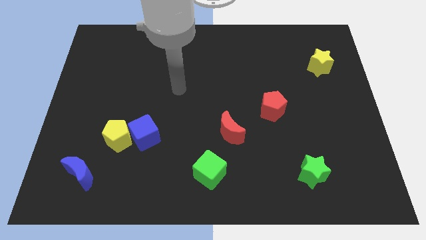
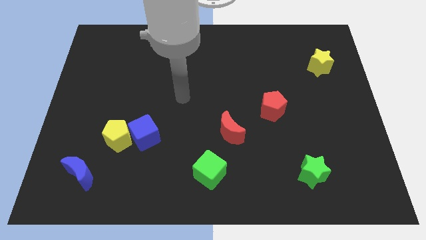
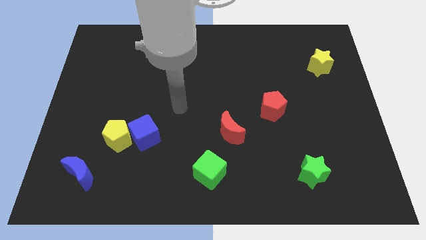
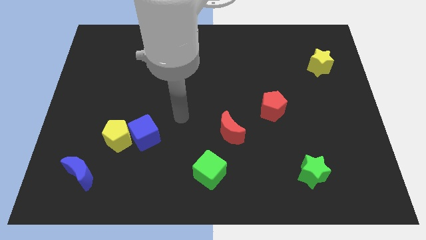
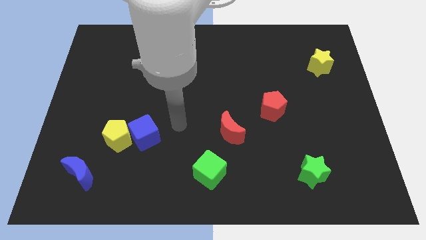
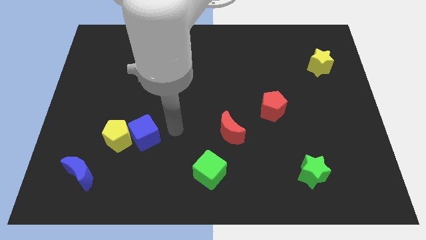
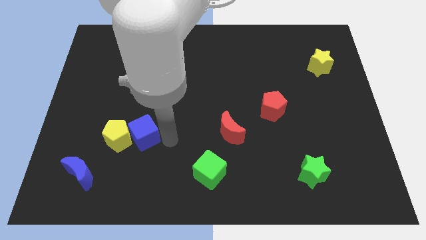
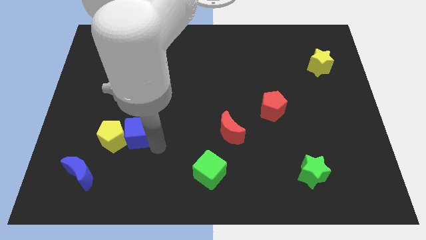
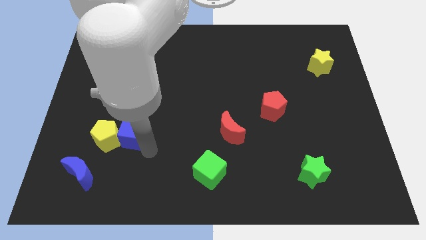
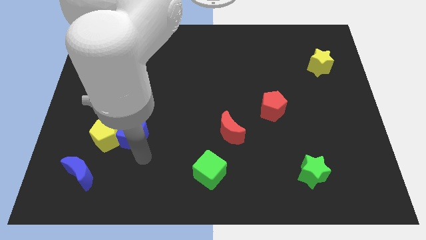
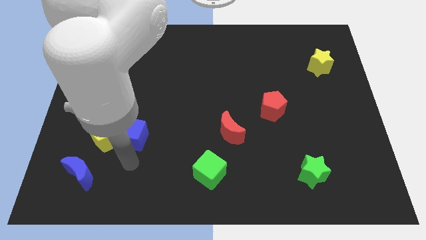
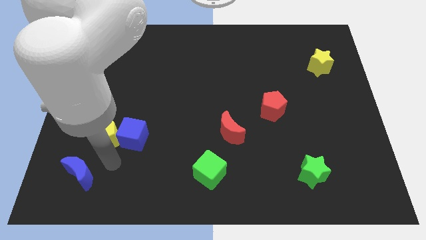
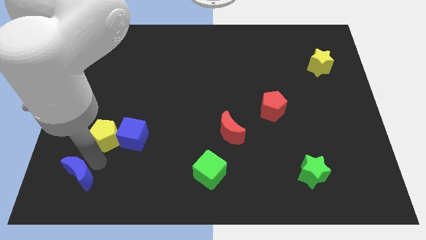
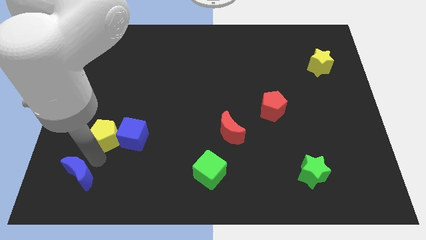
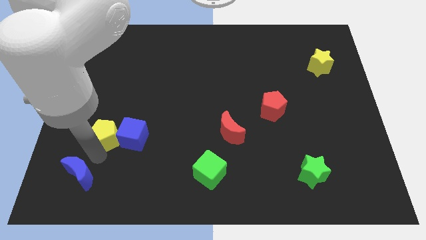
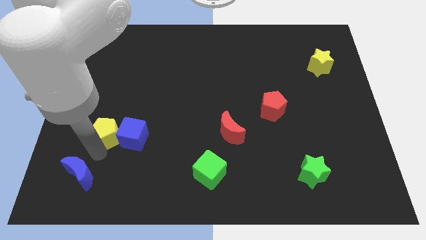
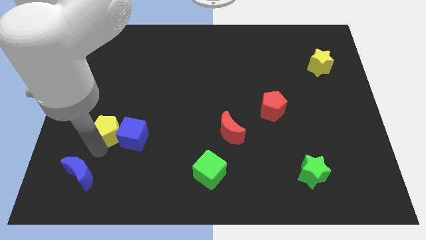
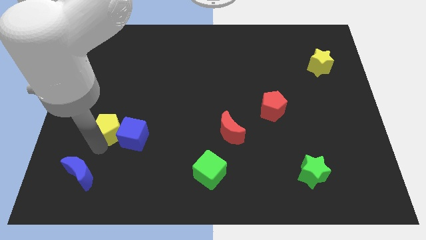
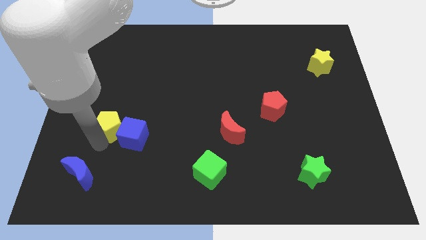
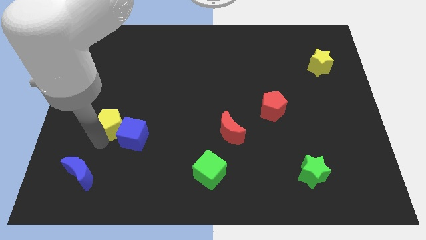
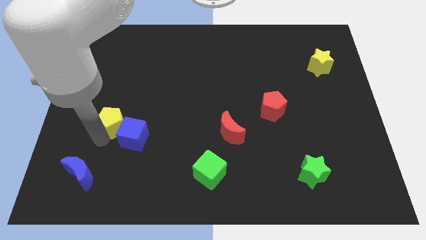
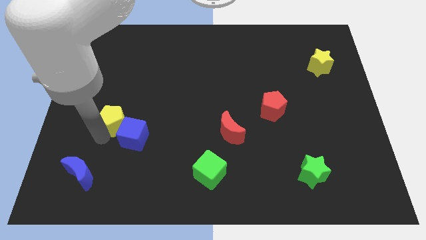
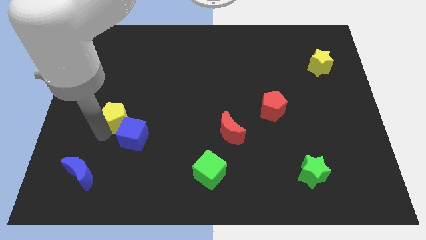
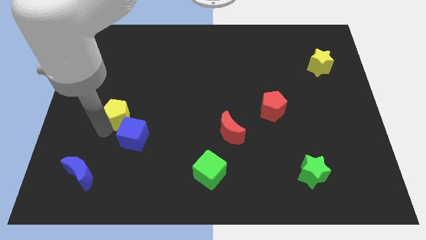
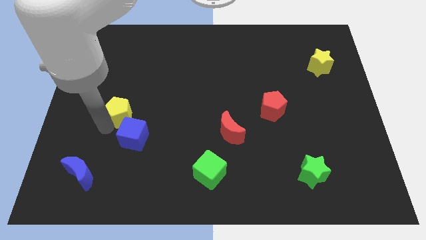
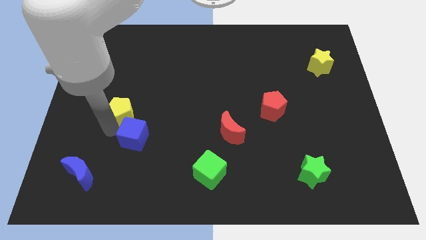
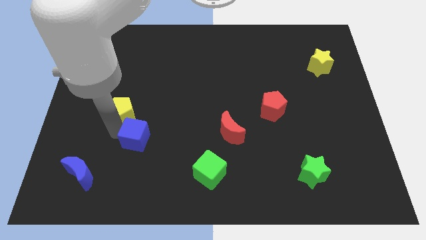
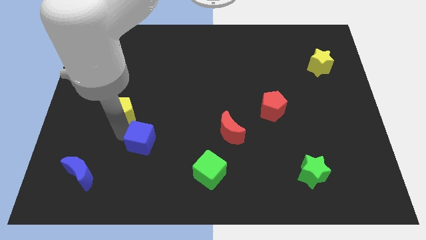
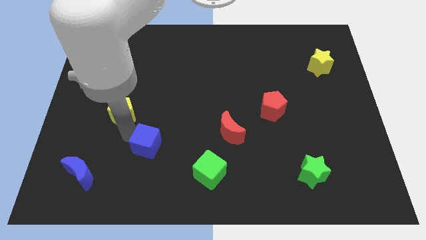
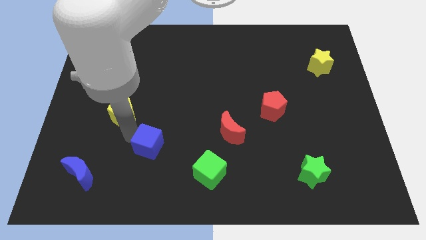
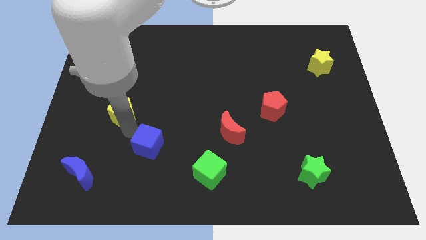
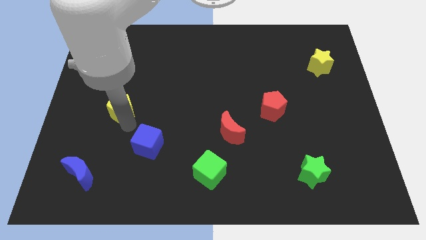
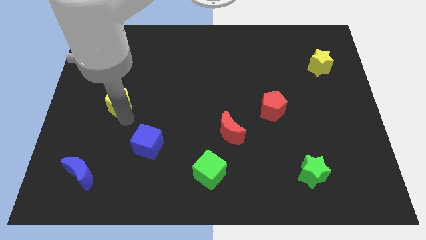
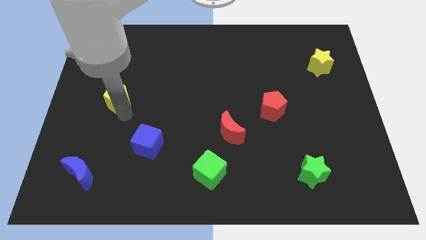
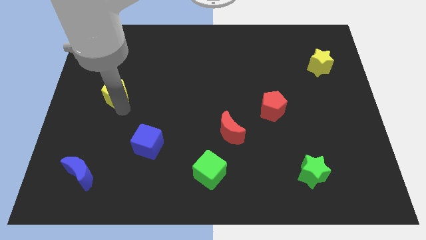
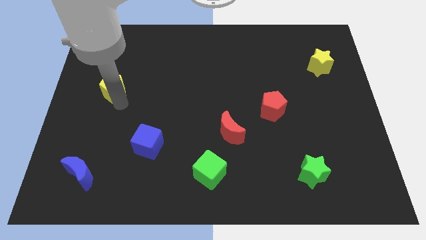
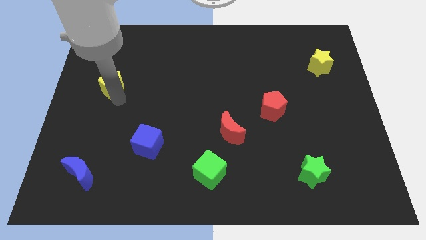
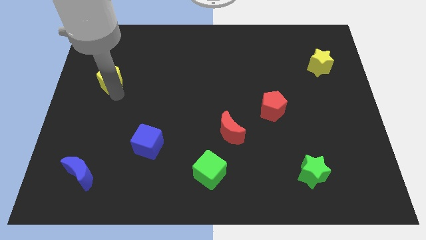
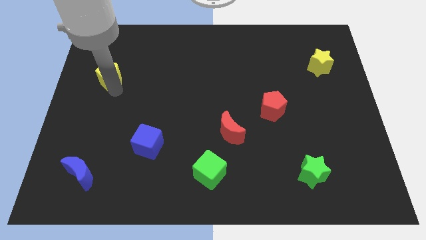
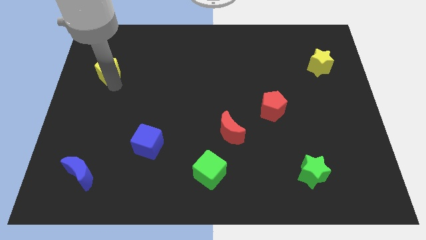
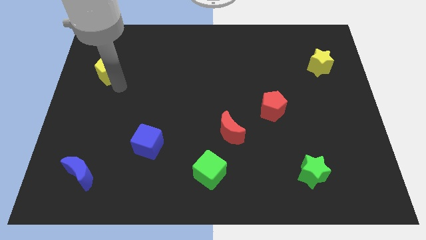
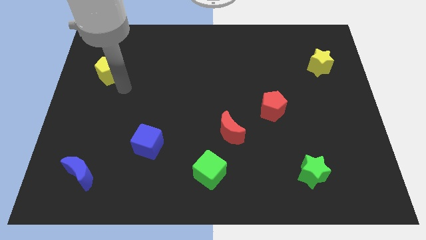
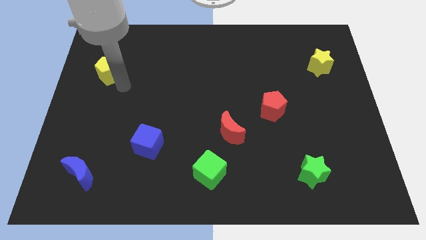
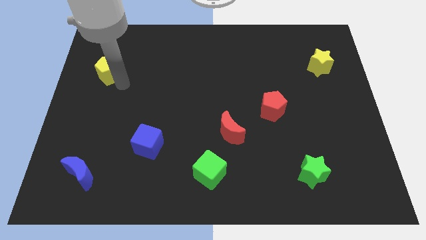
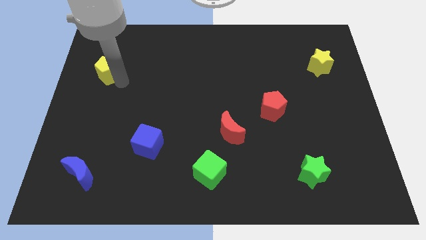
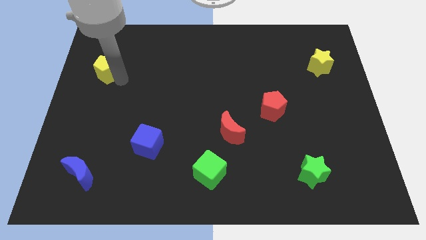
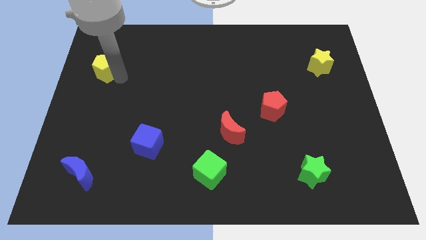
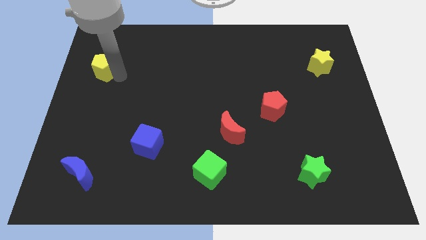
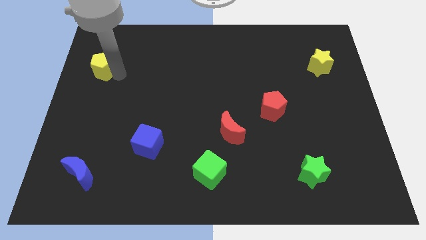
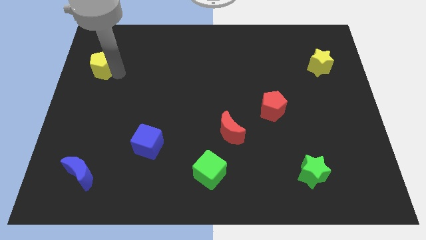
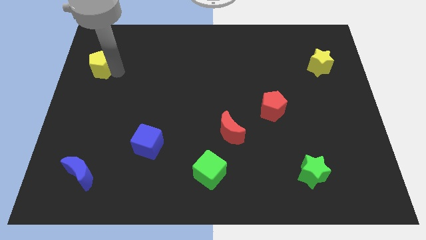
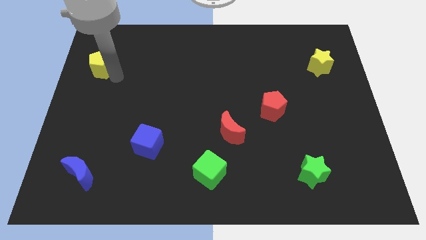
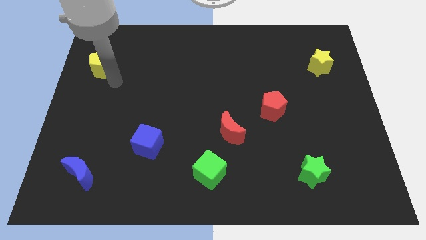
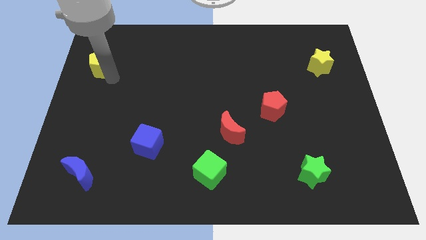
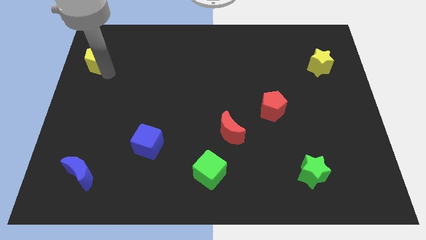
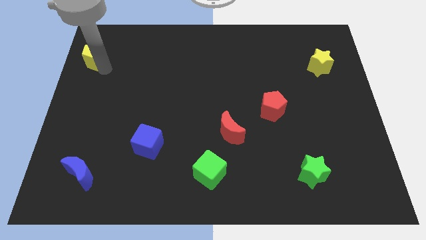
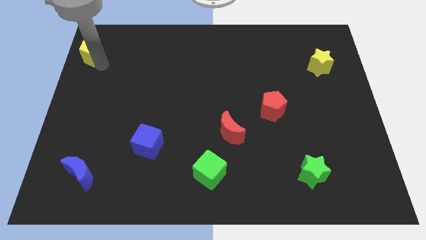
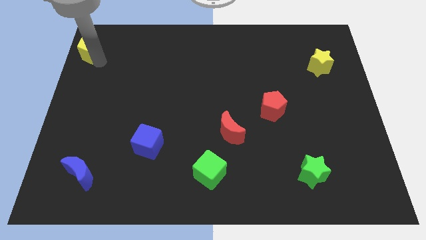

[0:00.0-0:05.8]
slide the yellow pentagon to the upper left corner
